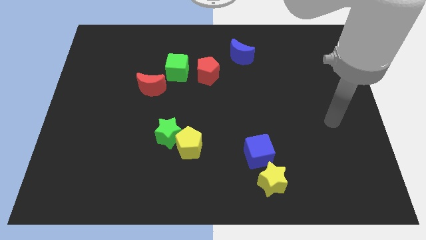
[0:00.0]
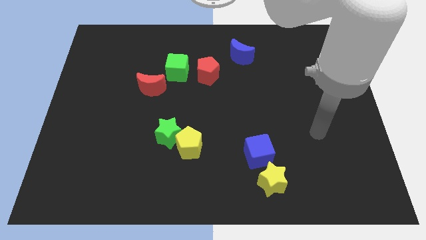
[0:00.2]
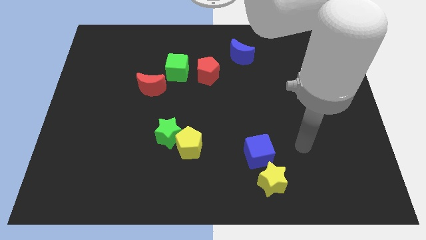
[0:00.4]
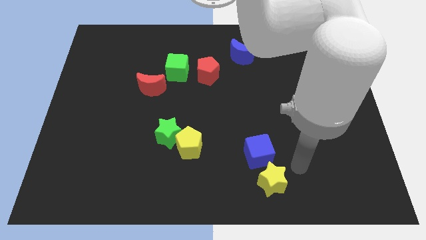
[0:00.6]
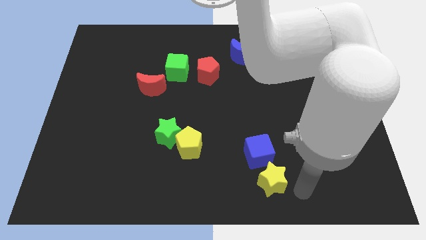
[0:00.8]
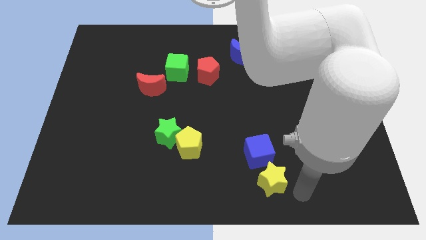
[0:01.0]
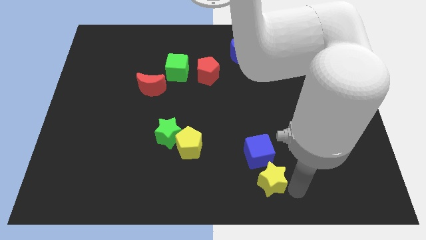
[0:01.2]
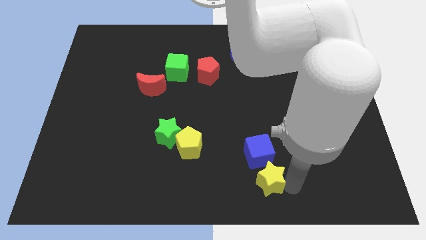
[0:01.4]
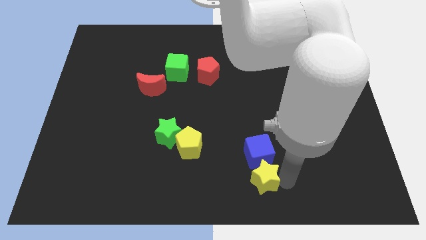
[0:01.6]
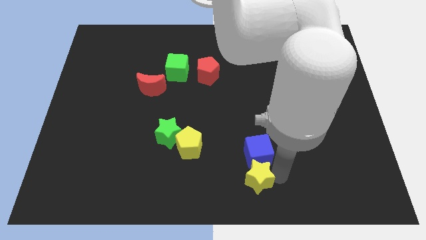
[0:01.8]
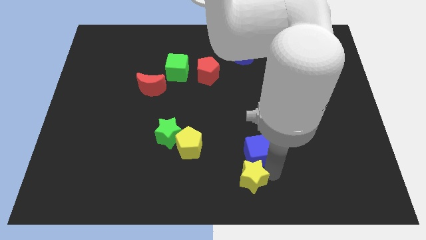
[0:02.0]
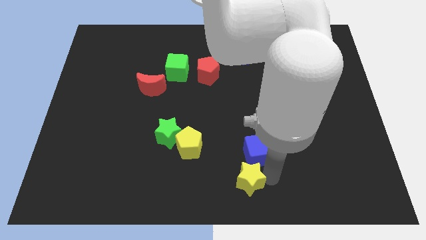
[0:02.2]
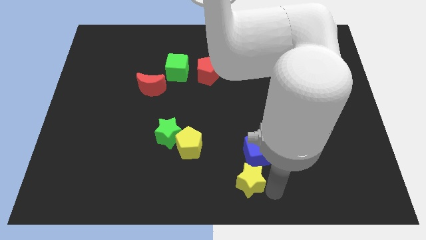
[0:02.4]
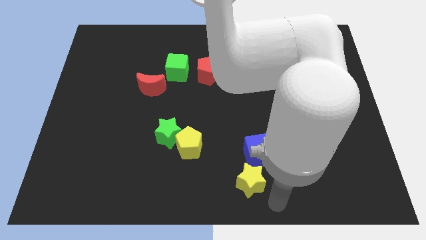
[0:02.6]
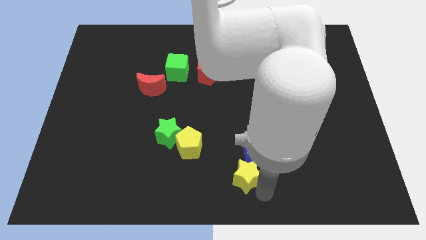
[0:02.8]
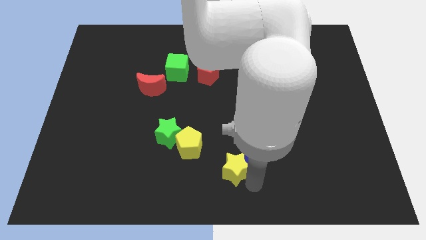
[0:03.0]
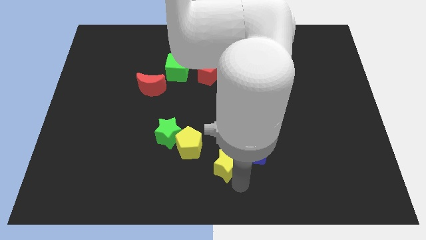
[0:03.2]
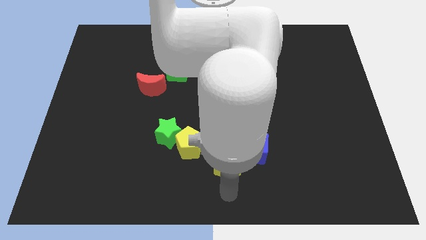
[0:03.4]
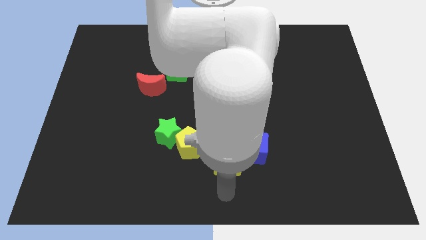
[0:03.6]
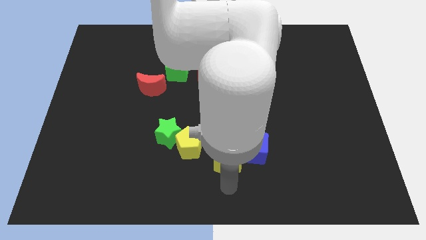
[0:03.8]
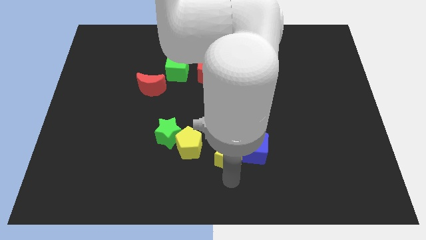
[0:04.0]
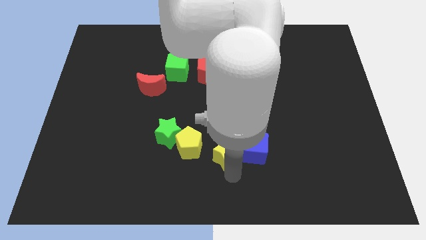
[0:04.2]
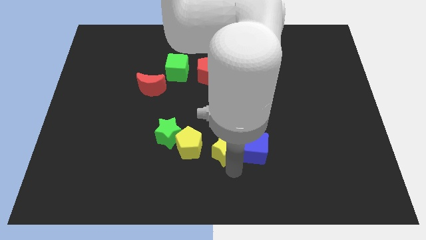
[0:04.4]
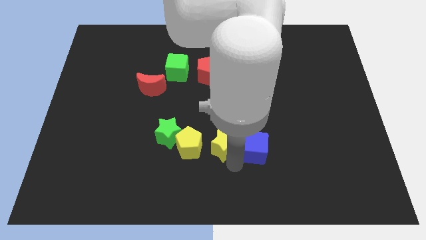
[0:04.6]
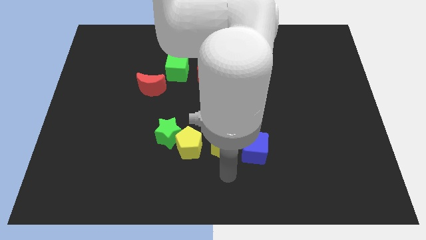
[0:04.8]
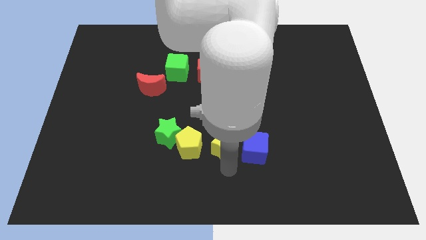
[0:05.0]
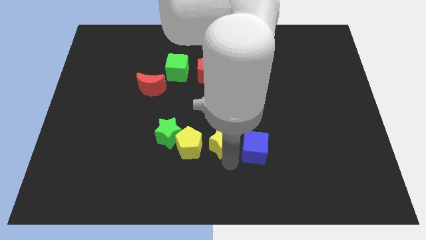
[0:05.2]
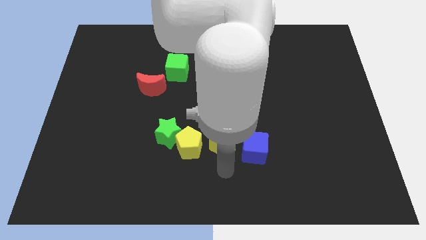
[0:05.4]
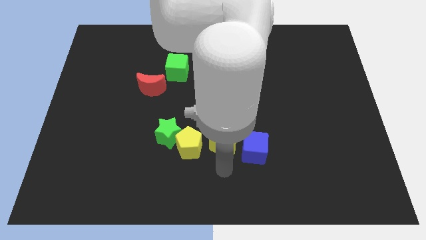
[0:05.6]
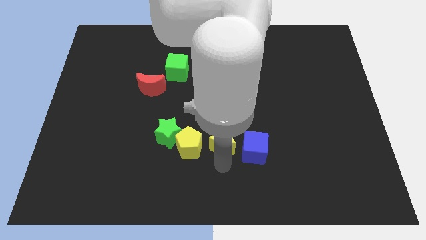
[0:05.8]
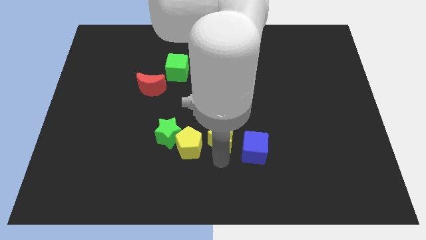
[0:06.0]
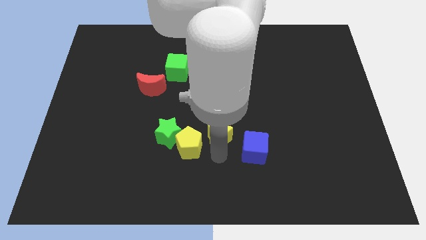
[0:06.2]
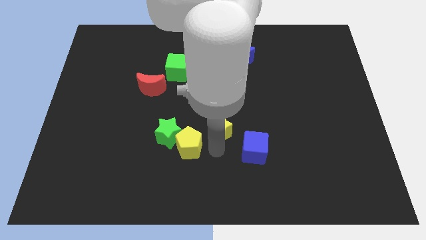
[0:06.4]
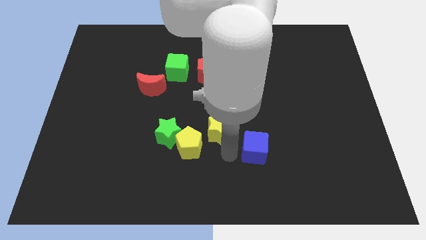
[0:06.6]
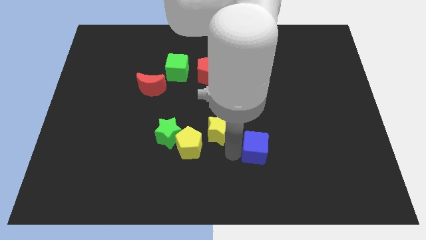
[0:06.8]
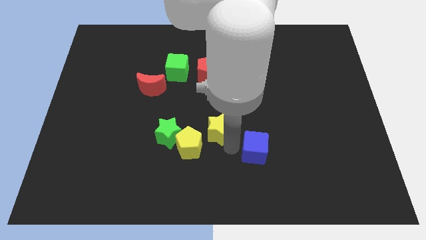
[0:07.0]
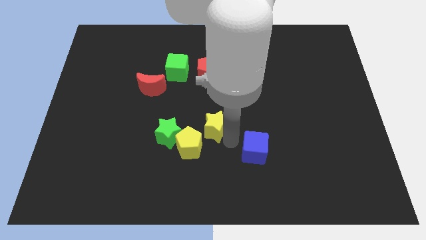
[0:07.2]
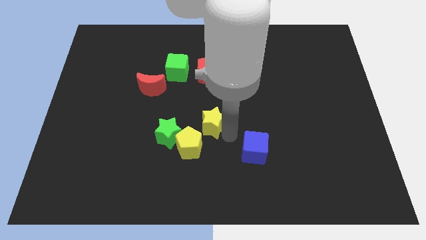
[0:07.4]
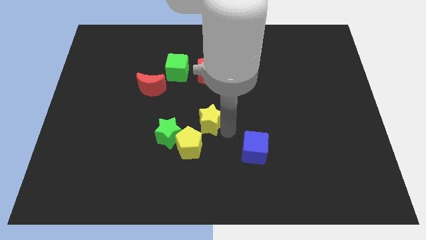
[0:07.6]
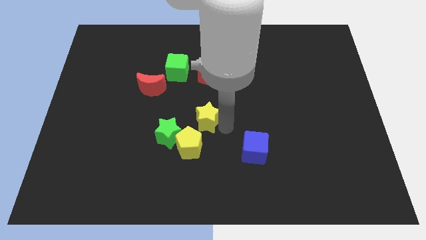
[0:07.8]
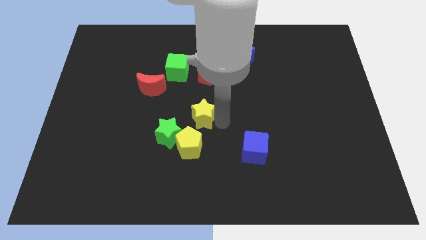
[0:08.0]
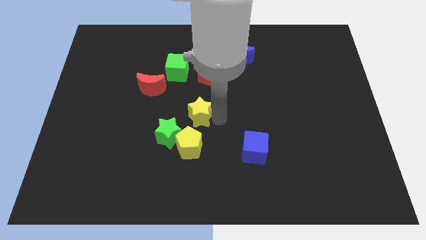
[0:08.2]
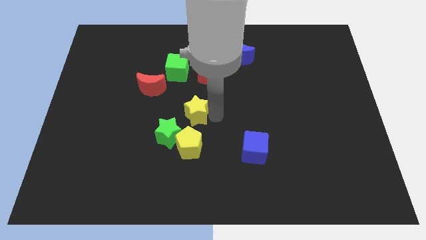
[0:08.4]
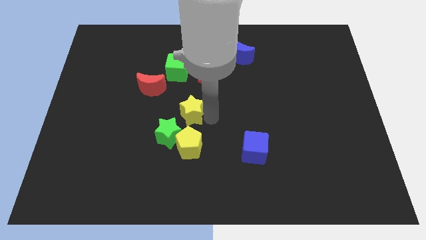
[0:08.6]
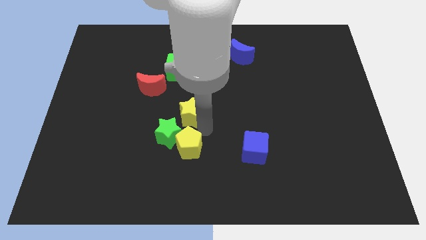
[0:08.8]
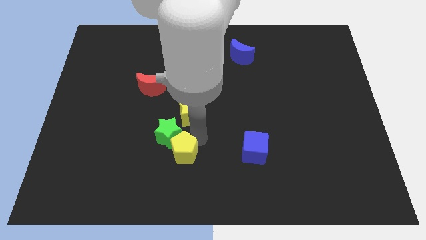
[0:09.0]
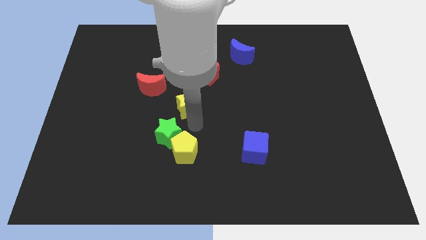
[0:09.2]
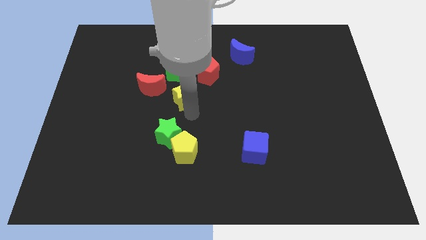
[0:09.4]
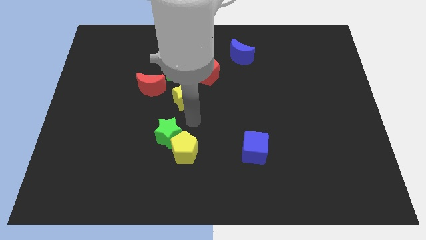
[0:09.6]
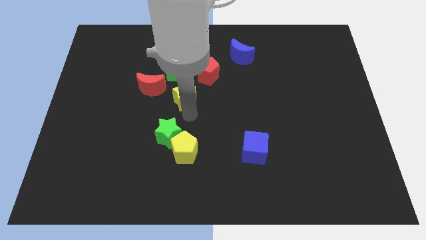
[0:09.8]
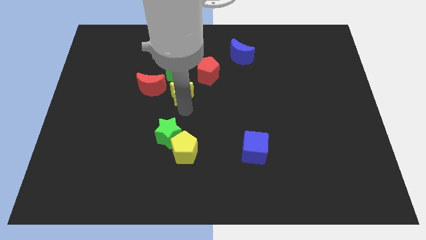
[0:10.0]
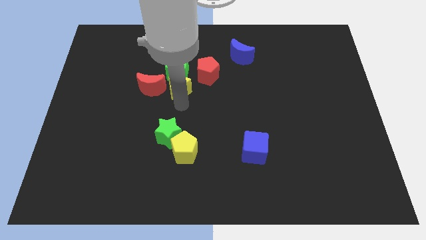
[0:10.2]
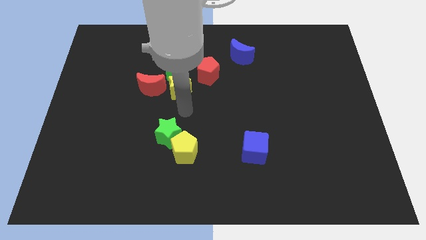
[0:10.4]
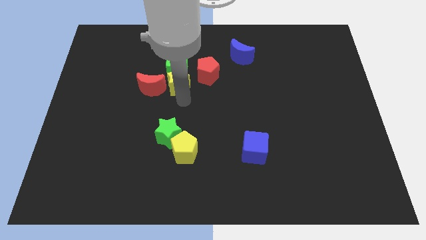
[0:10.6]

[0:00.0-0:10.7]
slide the yellow star close to the green cube

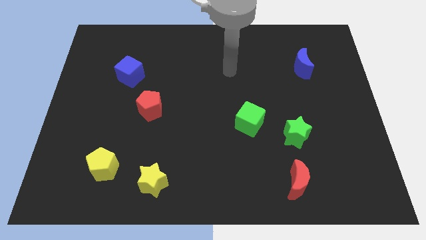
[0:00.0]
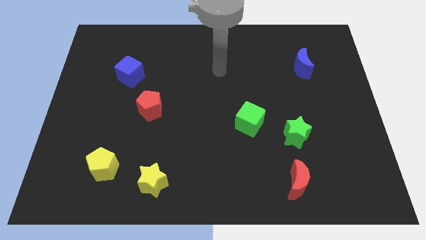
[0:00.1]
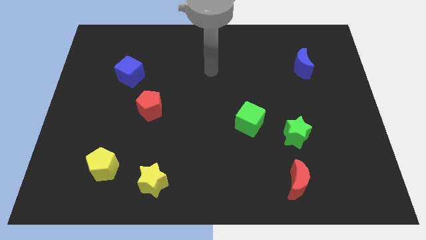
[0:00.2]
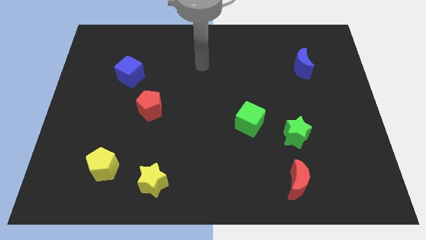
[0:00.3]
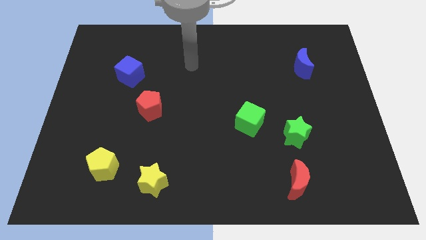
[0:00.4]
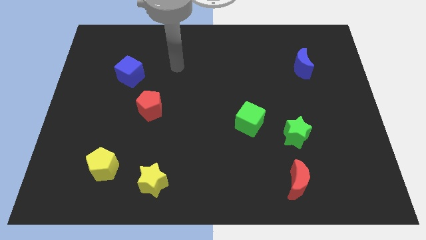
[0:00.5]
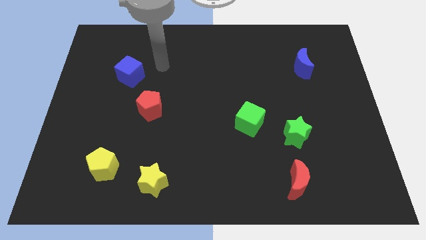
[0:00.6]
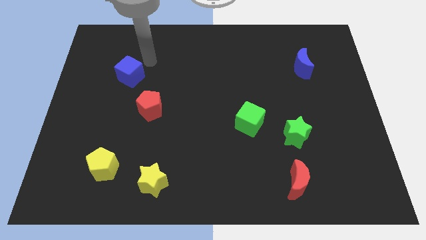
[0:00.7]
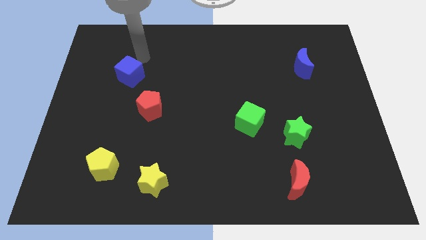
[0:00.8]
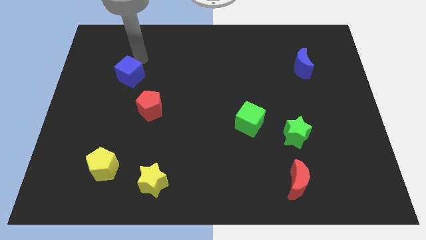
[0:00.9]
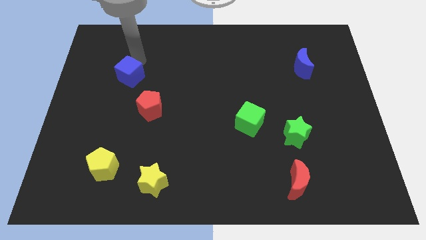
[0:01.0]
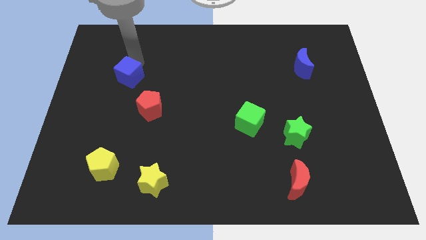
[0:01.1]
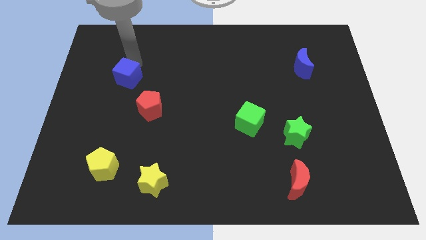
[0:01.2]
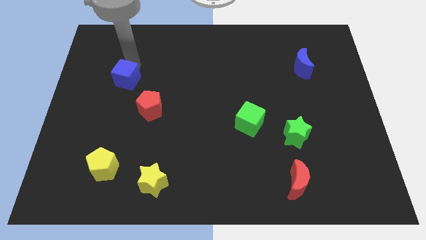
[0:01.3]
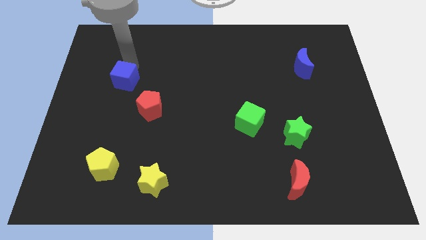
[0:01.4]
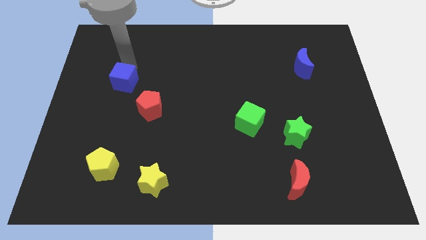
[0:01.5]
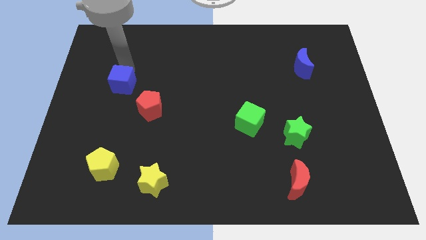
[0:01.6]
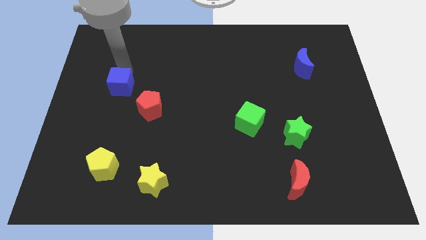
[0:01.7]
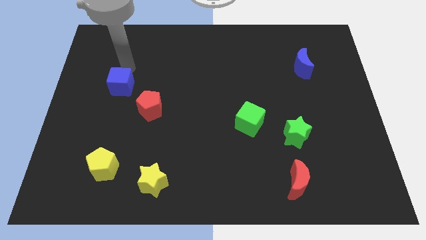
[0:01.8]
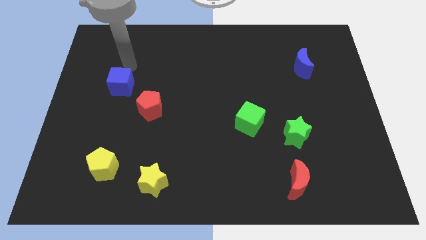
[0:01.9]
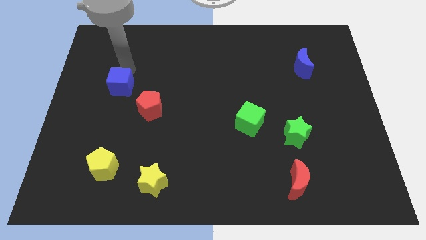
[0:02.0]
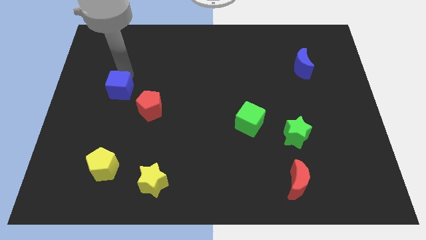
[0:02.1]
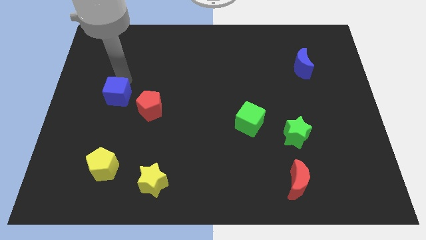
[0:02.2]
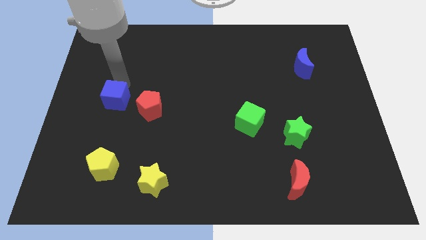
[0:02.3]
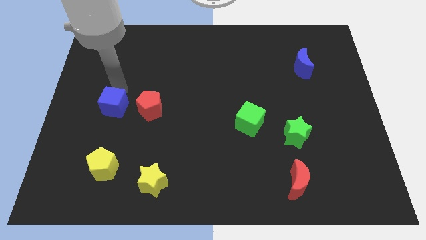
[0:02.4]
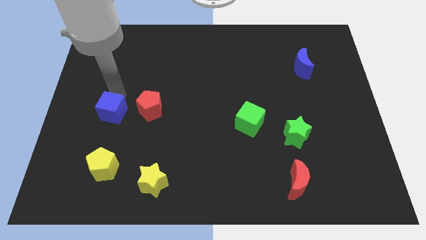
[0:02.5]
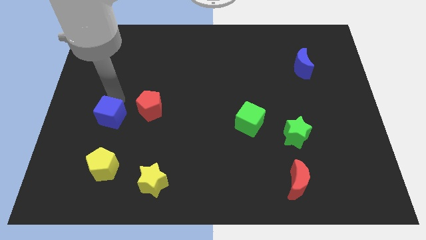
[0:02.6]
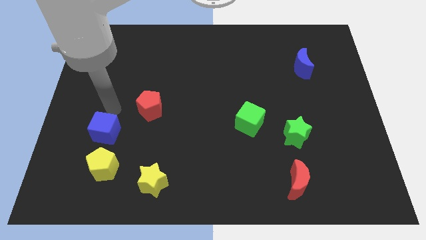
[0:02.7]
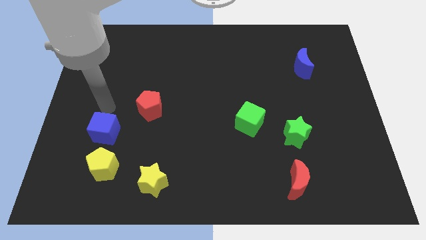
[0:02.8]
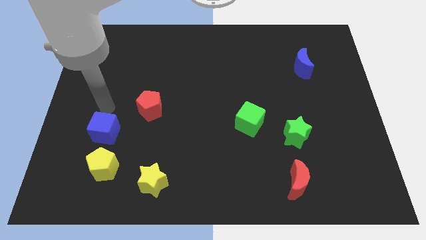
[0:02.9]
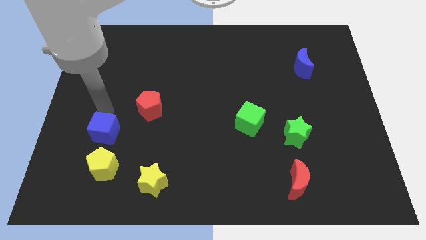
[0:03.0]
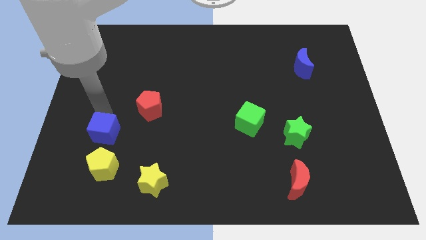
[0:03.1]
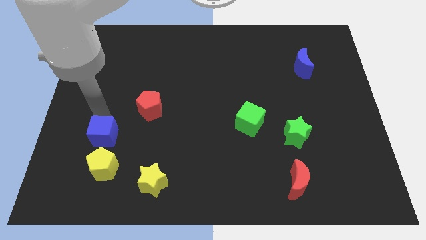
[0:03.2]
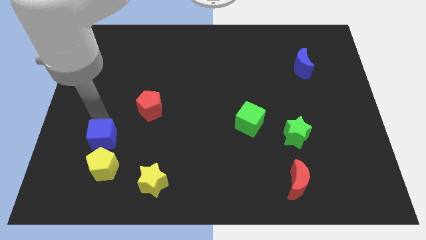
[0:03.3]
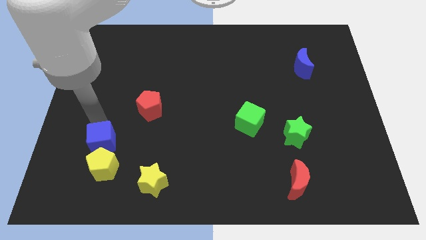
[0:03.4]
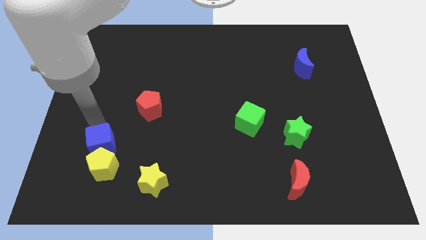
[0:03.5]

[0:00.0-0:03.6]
put the blue cube towards the yellow pentagon
